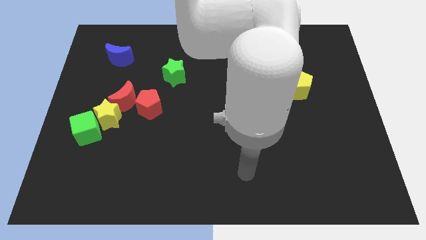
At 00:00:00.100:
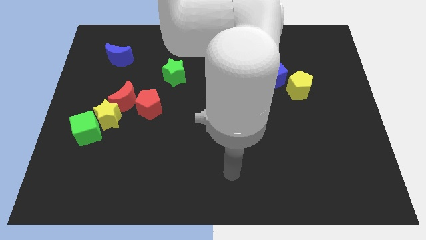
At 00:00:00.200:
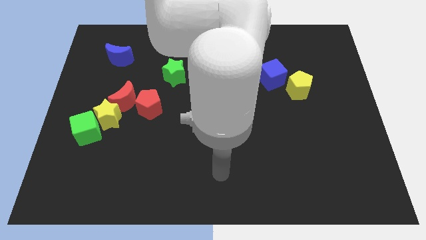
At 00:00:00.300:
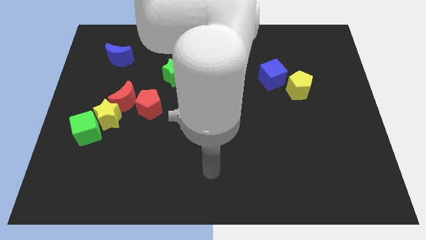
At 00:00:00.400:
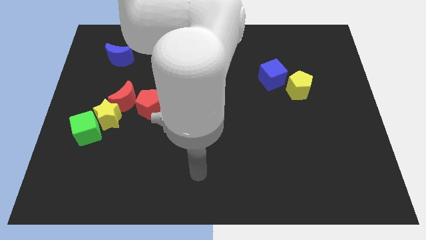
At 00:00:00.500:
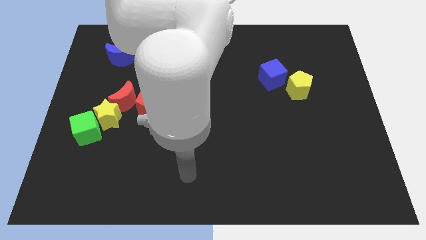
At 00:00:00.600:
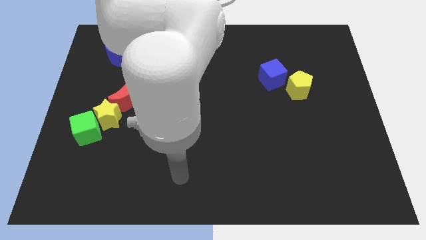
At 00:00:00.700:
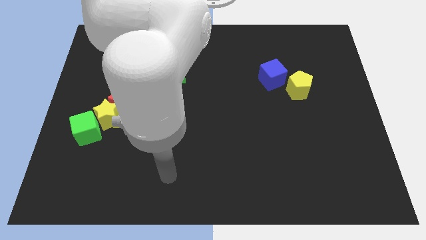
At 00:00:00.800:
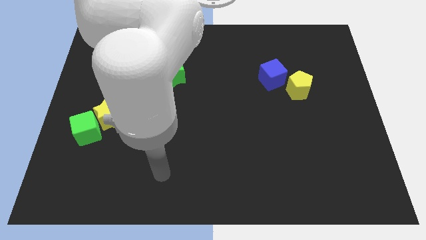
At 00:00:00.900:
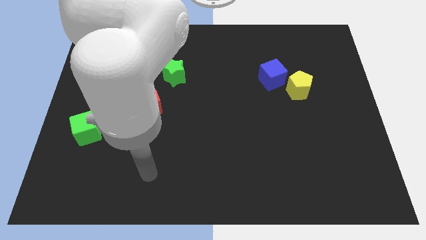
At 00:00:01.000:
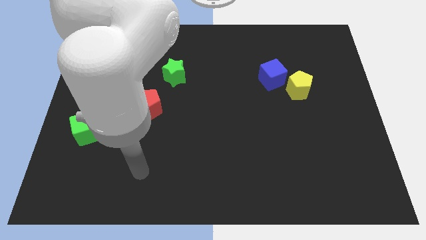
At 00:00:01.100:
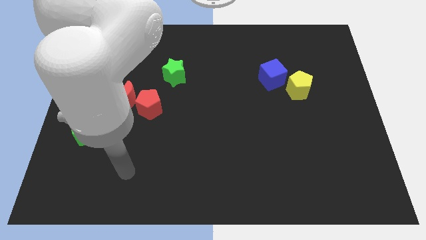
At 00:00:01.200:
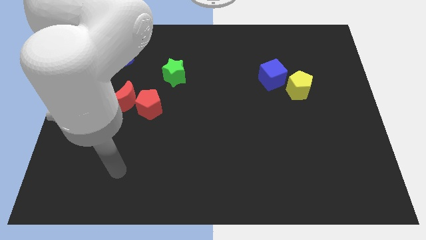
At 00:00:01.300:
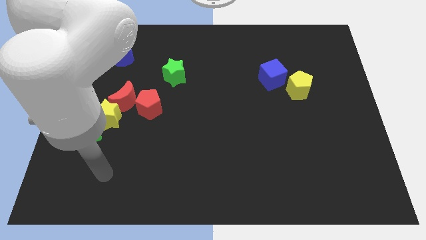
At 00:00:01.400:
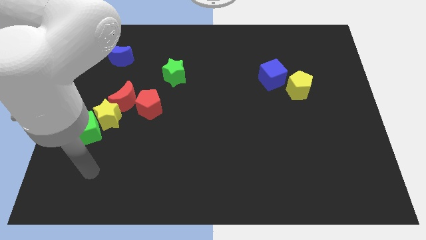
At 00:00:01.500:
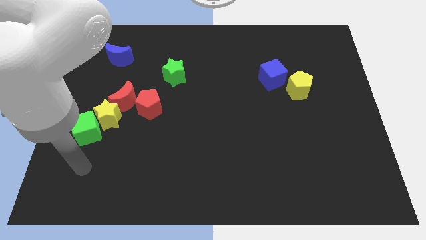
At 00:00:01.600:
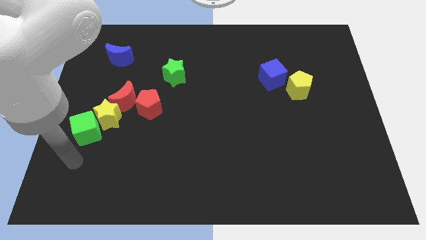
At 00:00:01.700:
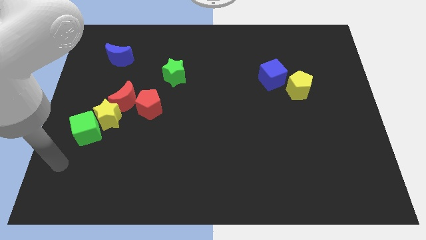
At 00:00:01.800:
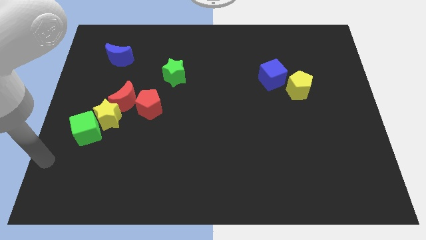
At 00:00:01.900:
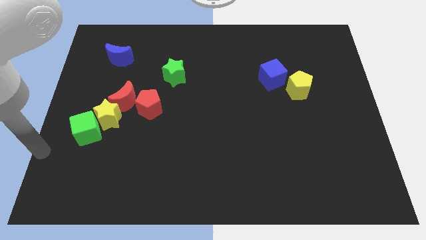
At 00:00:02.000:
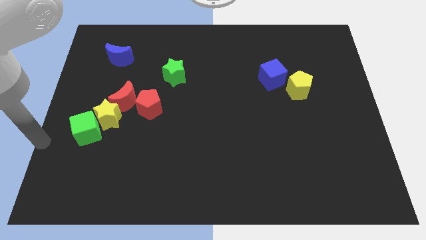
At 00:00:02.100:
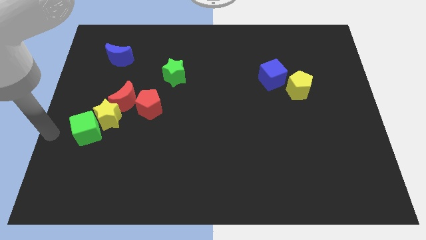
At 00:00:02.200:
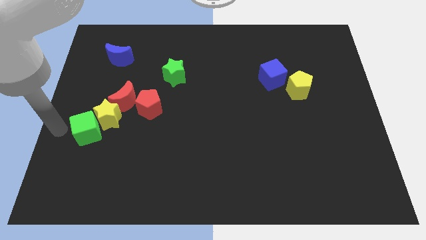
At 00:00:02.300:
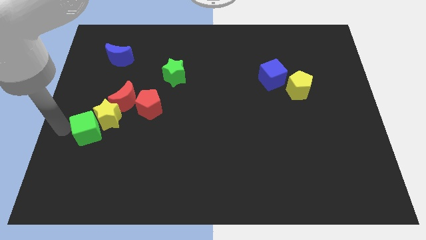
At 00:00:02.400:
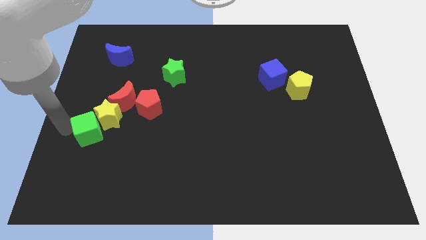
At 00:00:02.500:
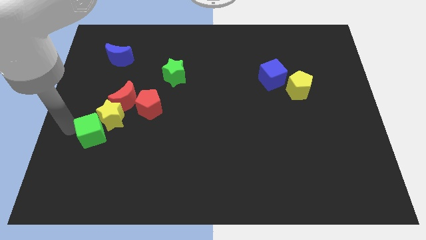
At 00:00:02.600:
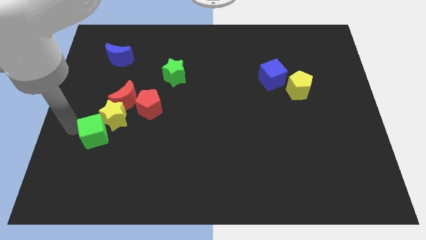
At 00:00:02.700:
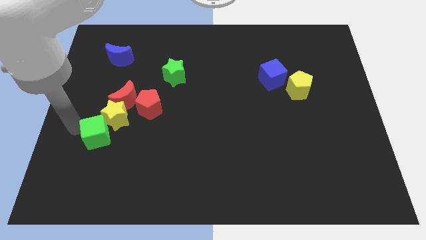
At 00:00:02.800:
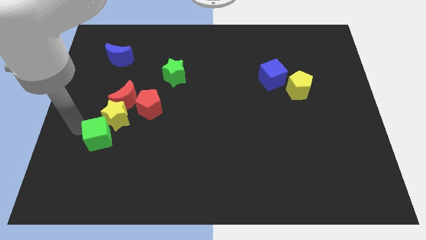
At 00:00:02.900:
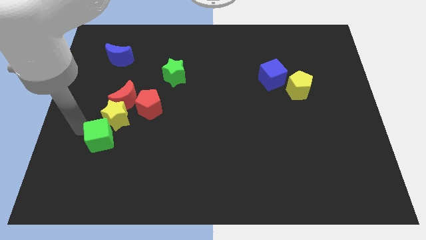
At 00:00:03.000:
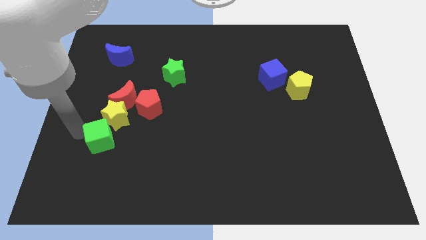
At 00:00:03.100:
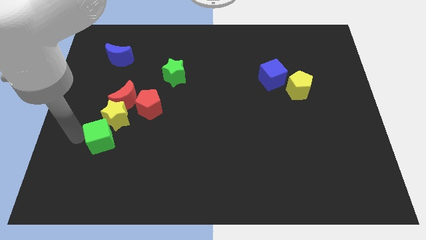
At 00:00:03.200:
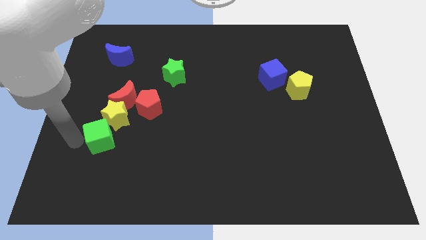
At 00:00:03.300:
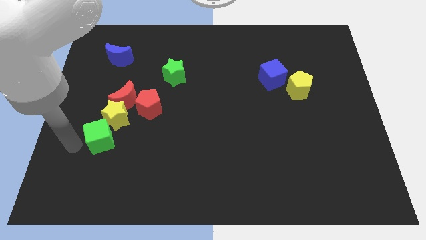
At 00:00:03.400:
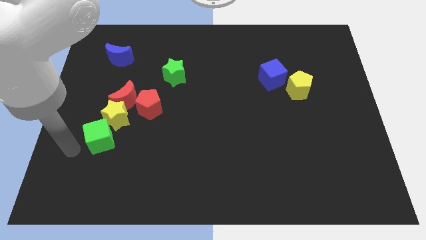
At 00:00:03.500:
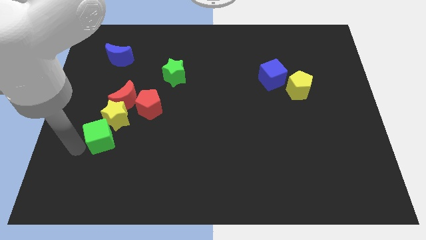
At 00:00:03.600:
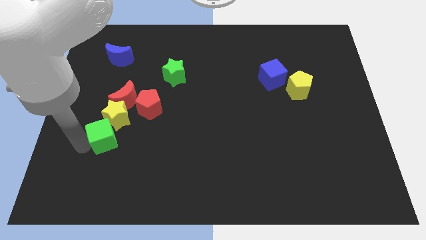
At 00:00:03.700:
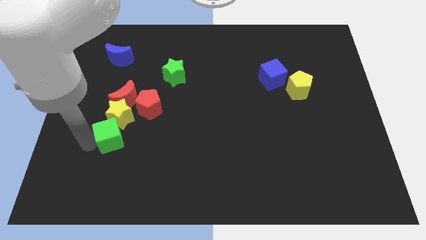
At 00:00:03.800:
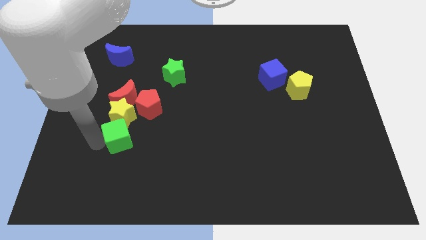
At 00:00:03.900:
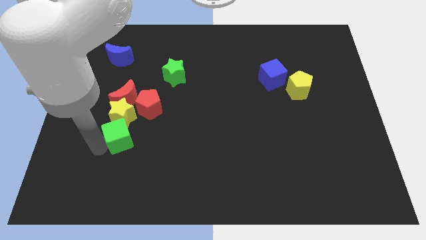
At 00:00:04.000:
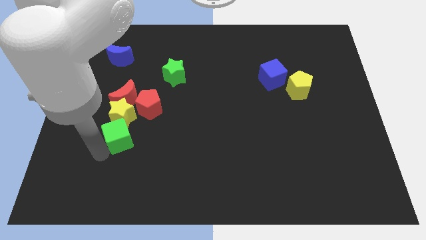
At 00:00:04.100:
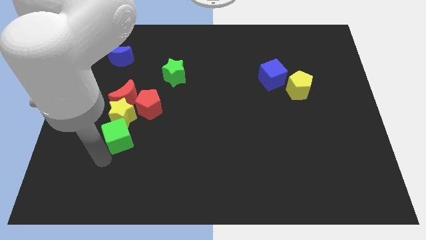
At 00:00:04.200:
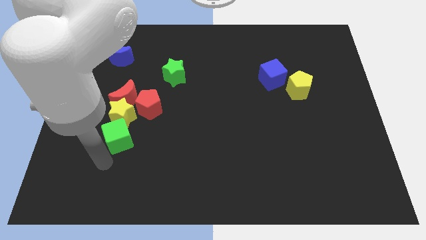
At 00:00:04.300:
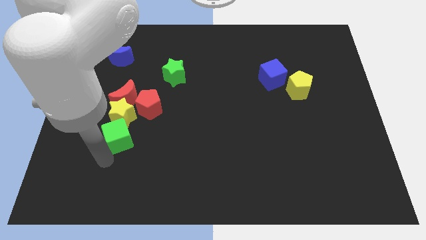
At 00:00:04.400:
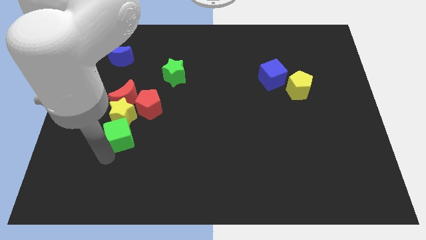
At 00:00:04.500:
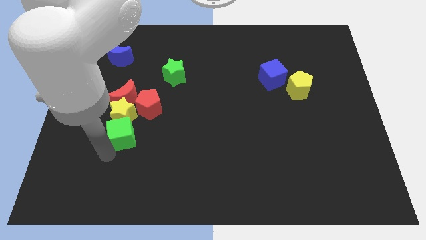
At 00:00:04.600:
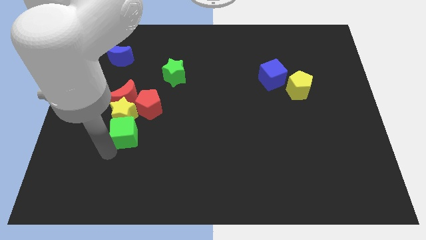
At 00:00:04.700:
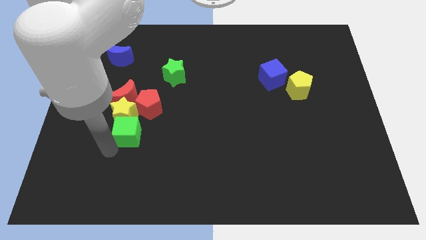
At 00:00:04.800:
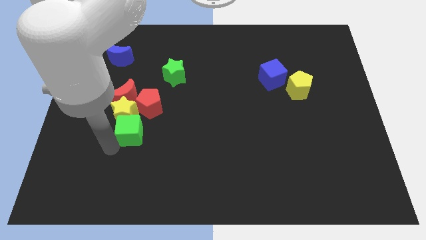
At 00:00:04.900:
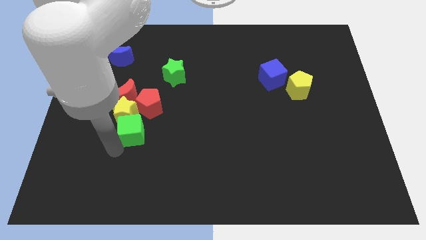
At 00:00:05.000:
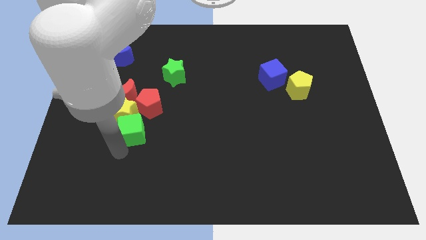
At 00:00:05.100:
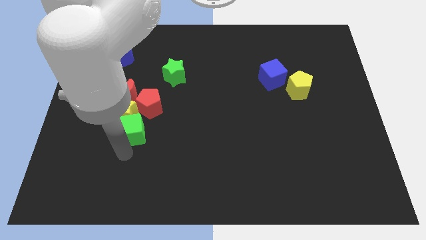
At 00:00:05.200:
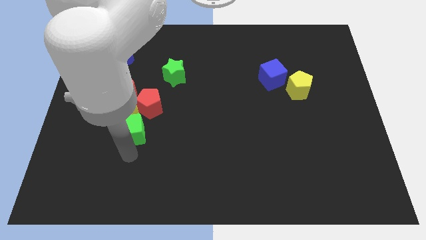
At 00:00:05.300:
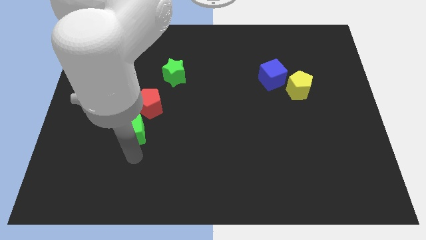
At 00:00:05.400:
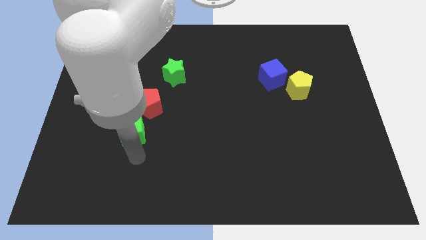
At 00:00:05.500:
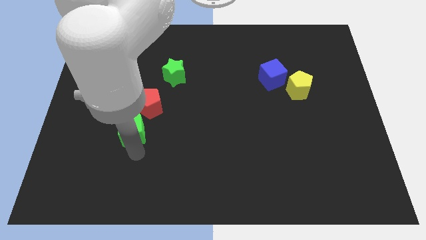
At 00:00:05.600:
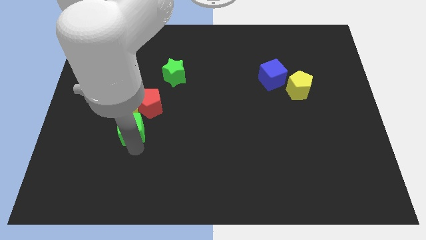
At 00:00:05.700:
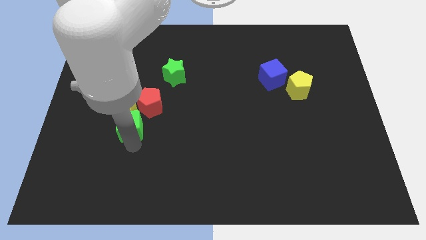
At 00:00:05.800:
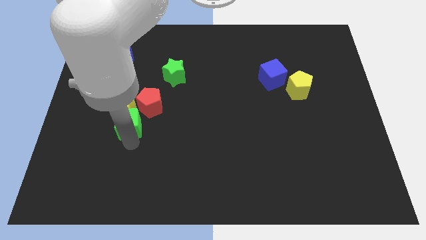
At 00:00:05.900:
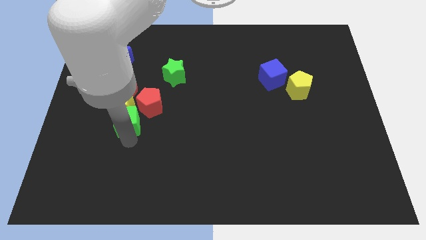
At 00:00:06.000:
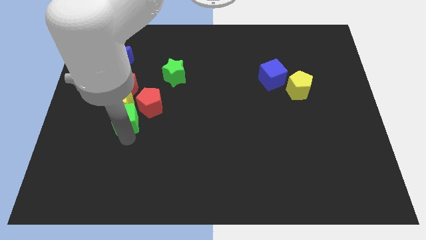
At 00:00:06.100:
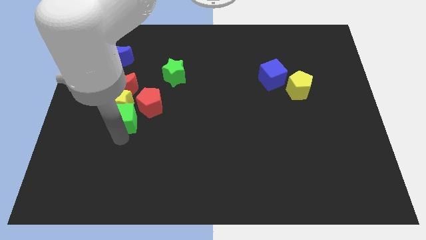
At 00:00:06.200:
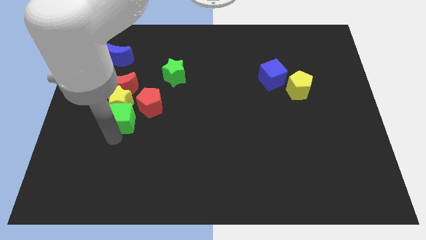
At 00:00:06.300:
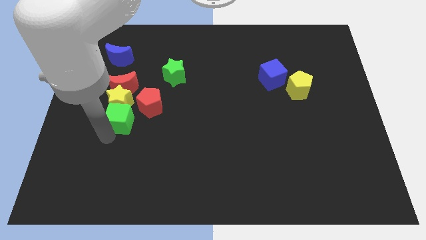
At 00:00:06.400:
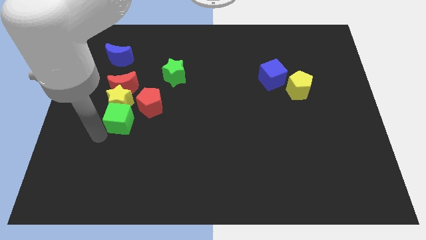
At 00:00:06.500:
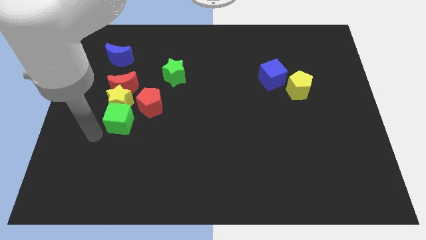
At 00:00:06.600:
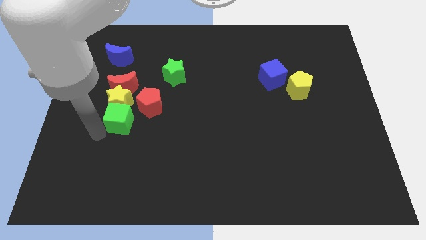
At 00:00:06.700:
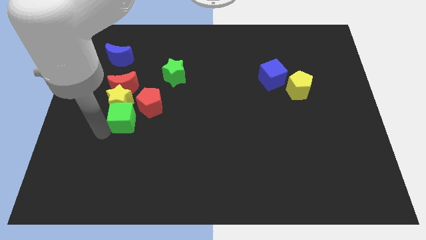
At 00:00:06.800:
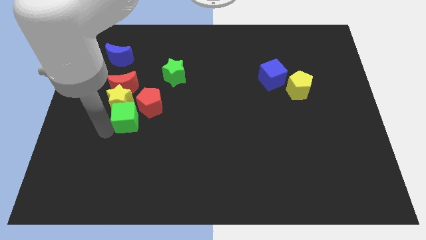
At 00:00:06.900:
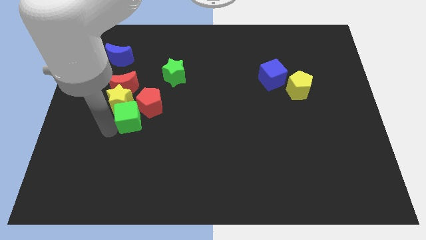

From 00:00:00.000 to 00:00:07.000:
push the green cube towards the red pentagon
